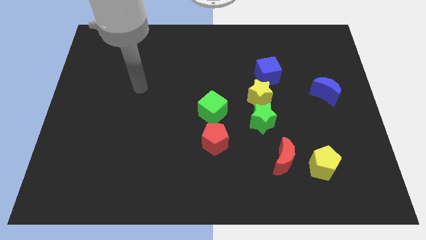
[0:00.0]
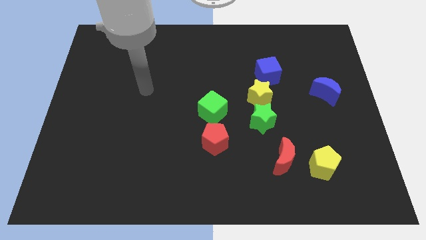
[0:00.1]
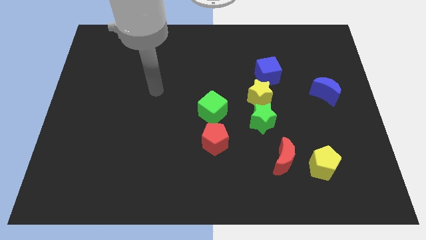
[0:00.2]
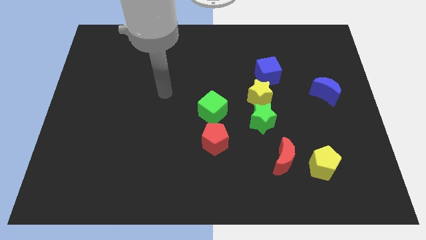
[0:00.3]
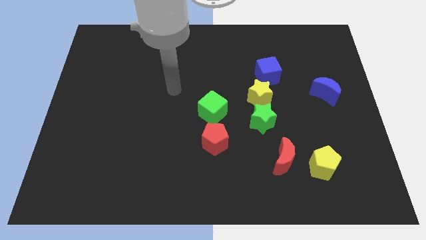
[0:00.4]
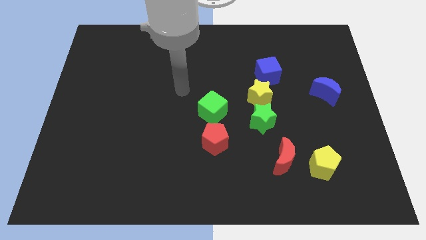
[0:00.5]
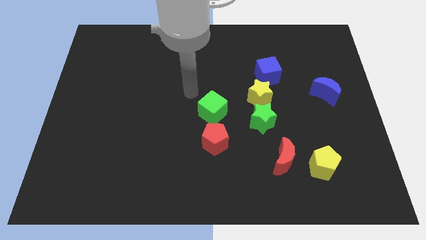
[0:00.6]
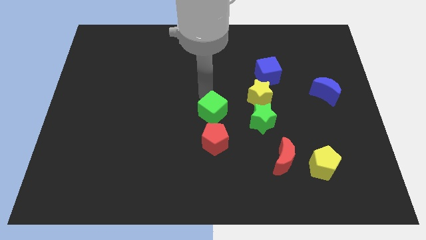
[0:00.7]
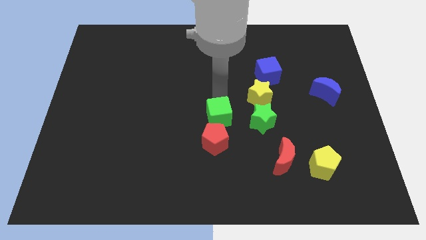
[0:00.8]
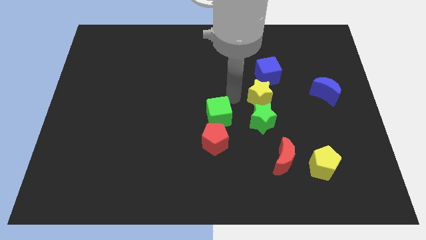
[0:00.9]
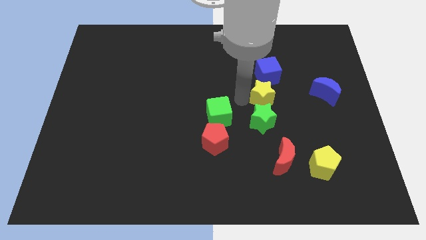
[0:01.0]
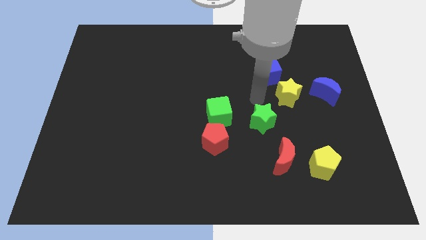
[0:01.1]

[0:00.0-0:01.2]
pull the green star apart from the yellow star

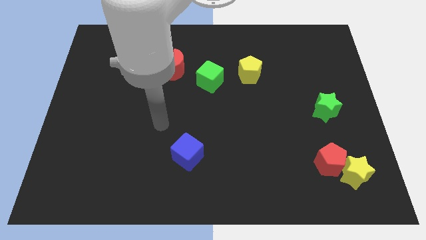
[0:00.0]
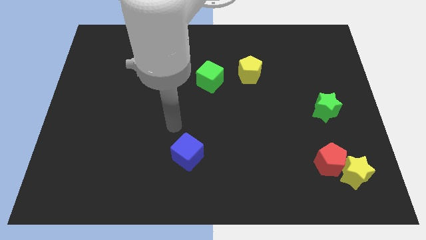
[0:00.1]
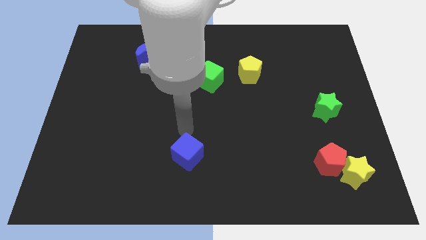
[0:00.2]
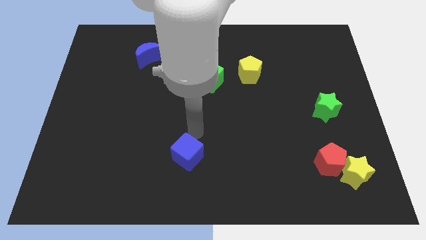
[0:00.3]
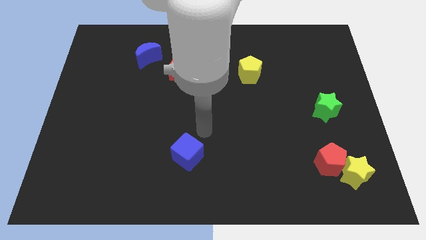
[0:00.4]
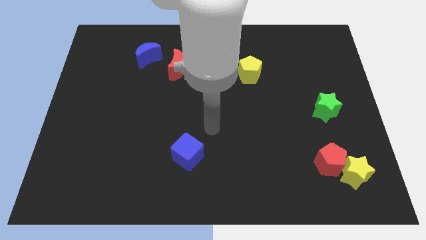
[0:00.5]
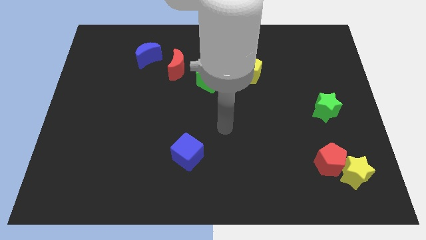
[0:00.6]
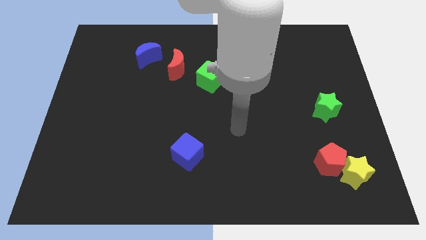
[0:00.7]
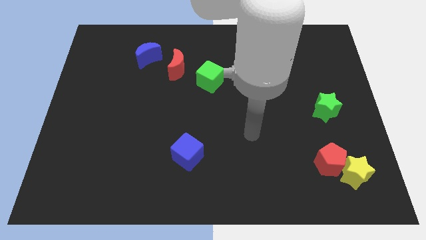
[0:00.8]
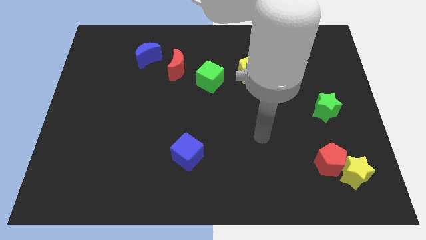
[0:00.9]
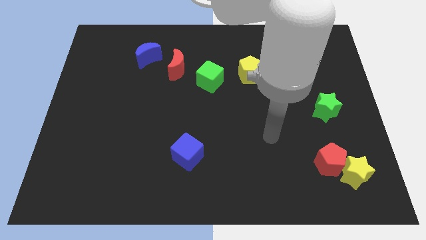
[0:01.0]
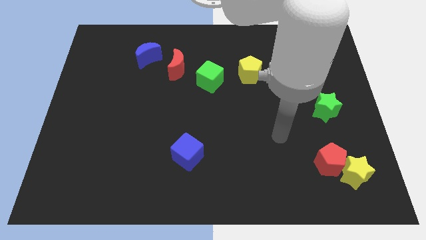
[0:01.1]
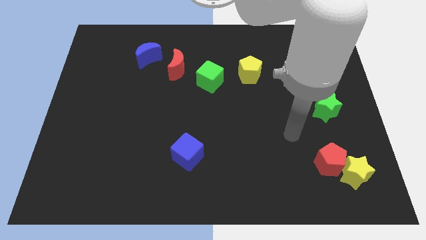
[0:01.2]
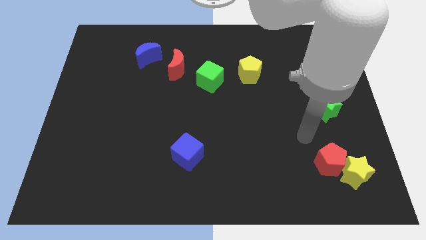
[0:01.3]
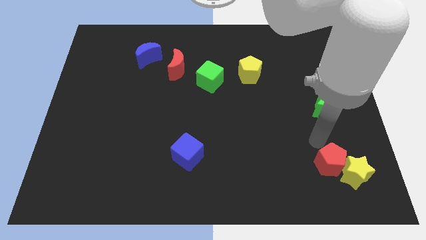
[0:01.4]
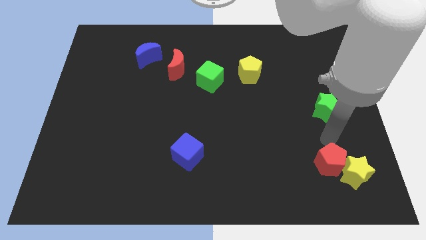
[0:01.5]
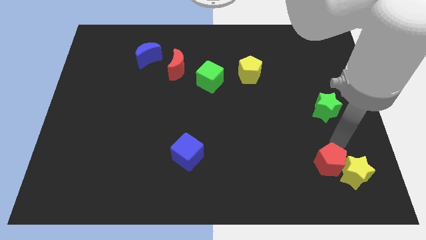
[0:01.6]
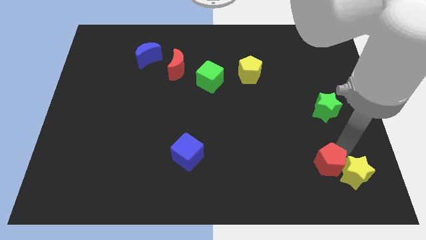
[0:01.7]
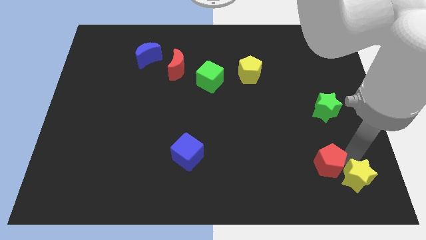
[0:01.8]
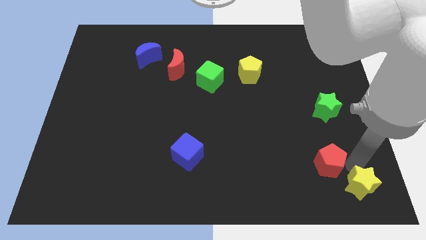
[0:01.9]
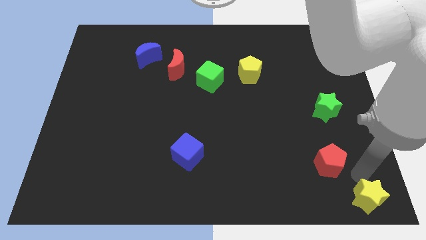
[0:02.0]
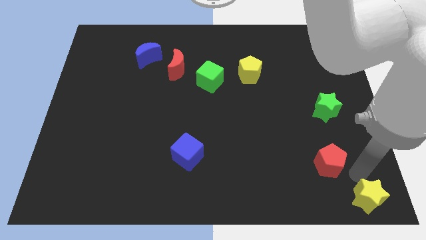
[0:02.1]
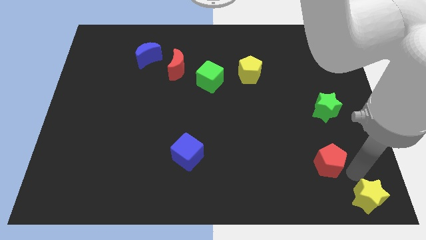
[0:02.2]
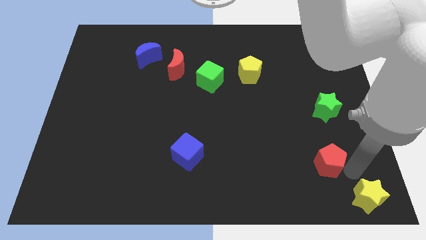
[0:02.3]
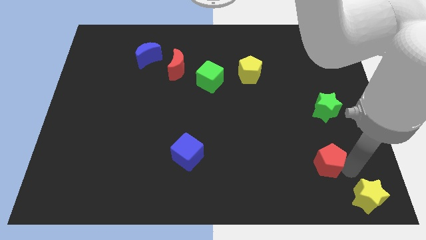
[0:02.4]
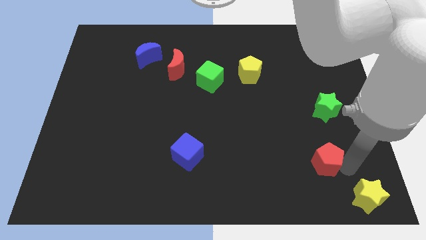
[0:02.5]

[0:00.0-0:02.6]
pull the red pentagon apart from the yellow star

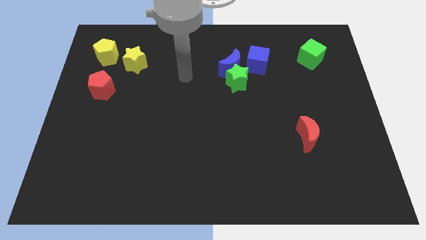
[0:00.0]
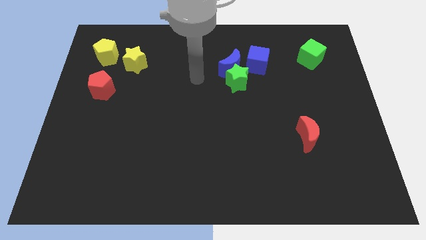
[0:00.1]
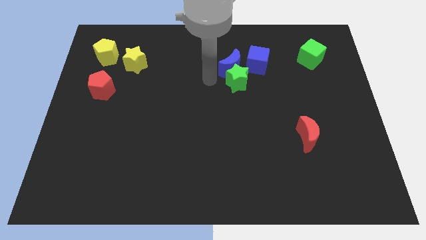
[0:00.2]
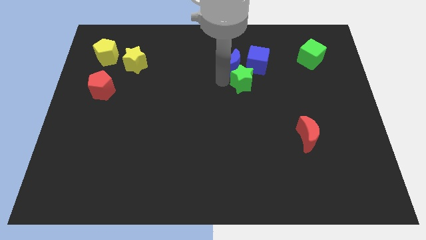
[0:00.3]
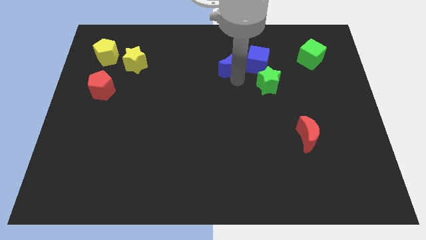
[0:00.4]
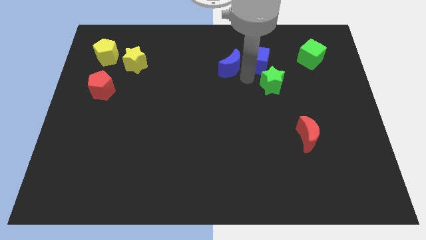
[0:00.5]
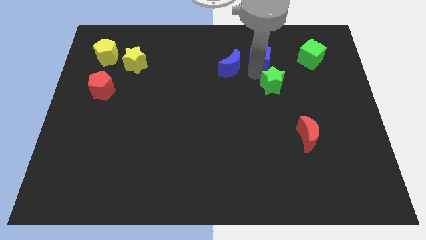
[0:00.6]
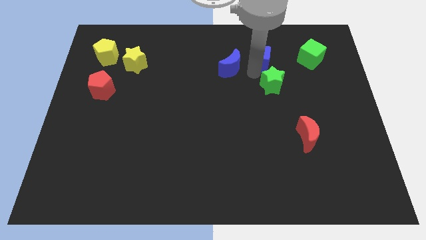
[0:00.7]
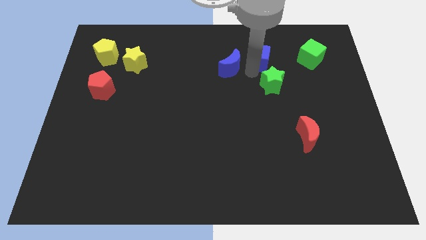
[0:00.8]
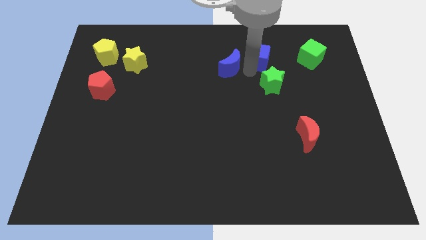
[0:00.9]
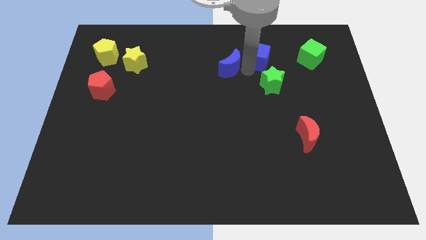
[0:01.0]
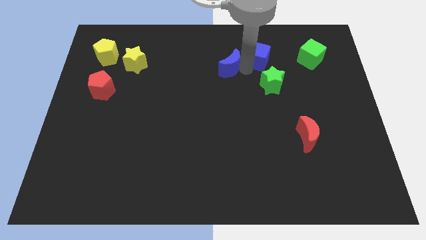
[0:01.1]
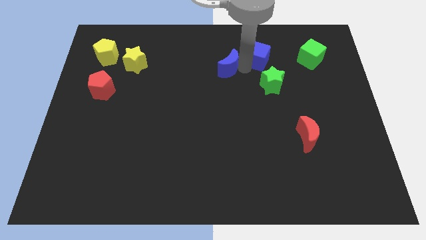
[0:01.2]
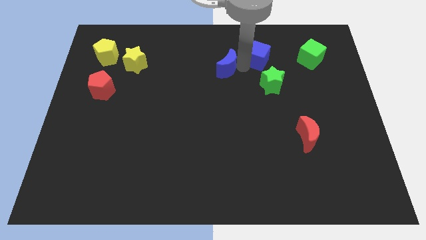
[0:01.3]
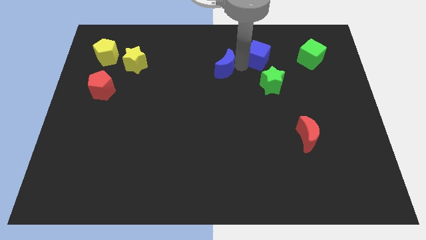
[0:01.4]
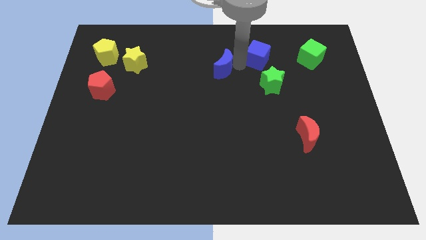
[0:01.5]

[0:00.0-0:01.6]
pull the blue moon apart from the green star and blue cube

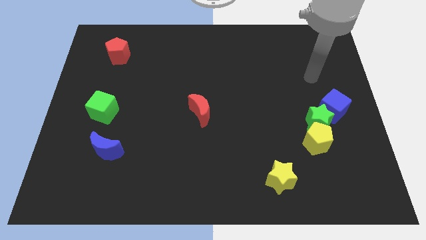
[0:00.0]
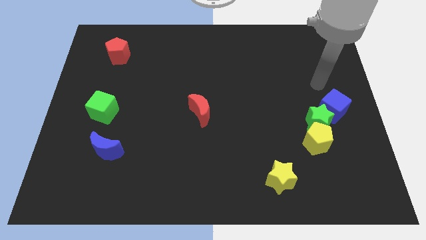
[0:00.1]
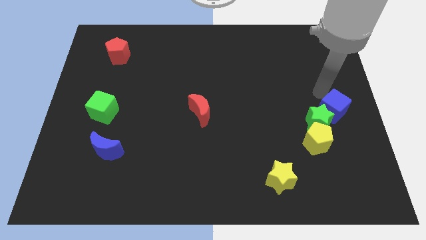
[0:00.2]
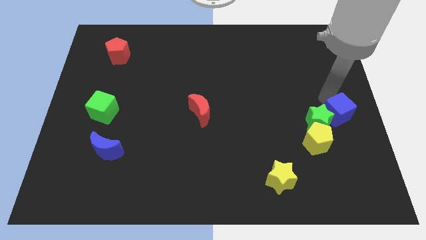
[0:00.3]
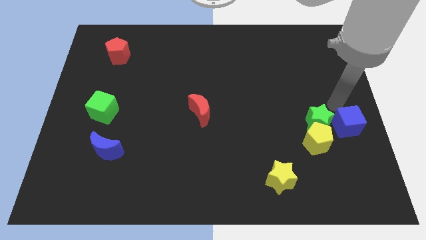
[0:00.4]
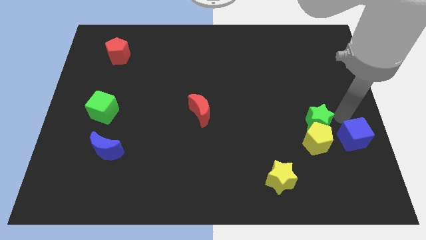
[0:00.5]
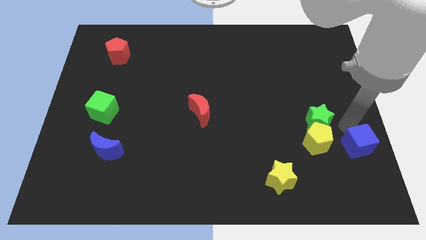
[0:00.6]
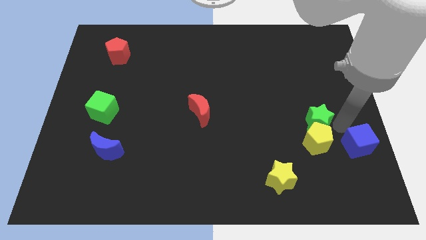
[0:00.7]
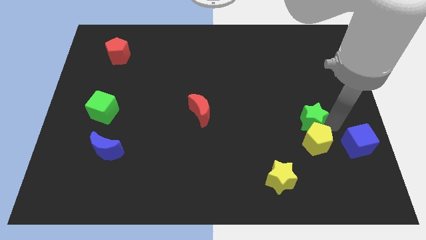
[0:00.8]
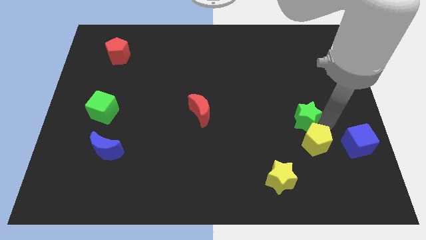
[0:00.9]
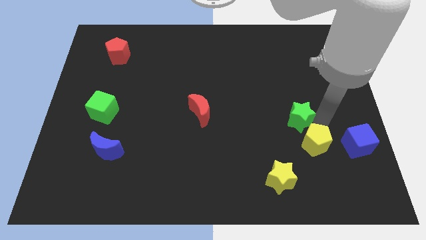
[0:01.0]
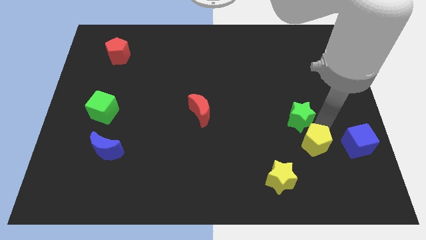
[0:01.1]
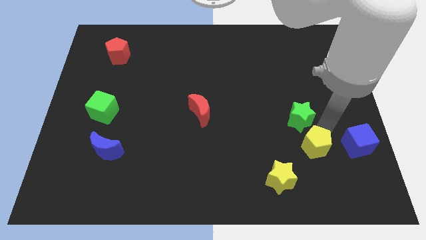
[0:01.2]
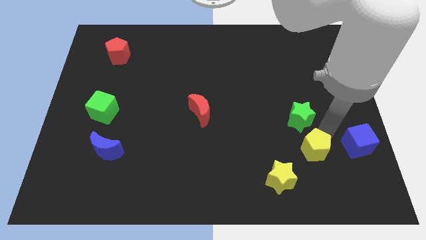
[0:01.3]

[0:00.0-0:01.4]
separate the green star from the yellow pentagon and blue cube

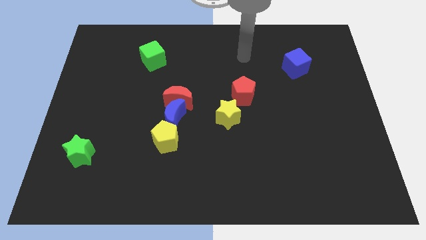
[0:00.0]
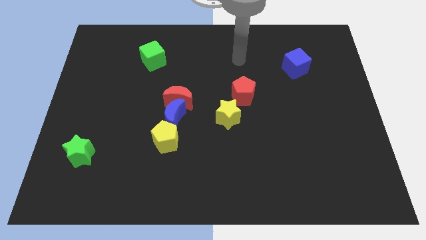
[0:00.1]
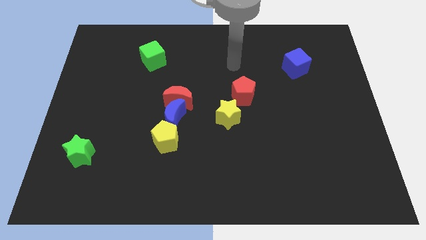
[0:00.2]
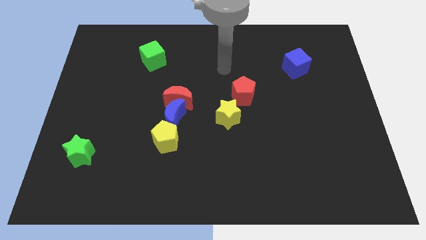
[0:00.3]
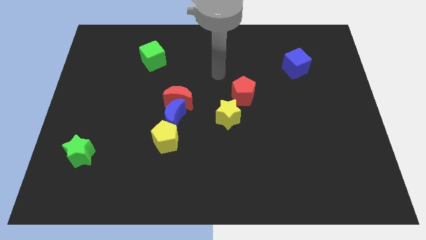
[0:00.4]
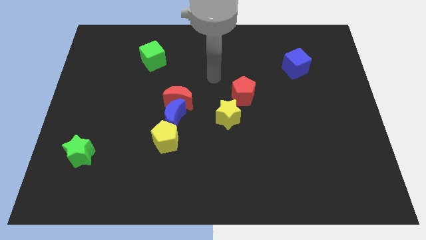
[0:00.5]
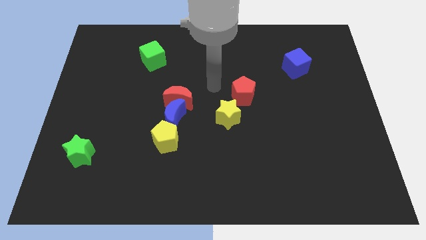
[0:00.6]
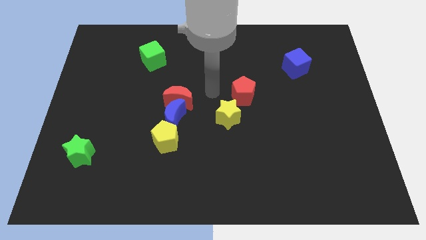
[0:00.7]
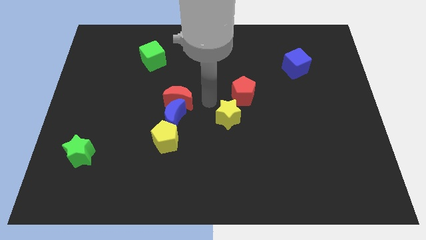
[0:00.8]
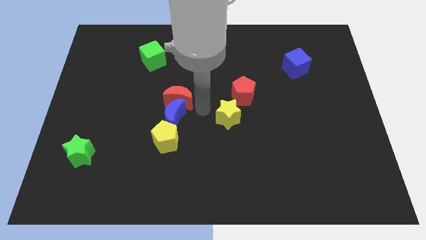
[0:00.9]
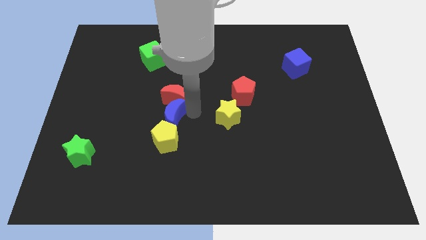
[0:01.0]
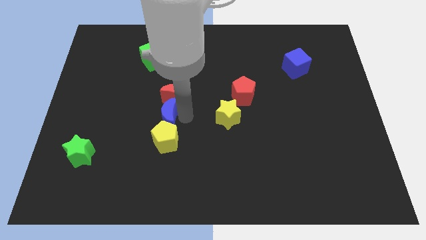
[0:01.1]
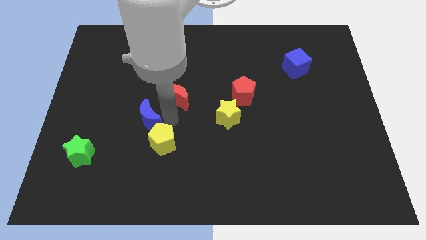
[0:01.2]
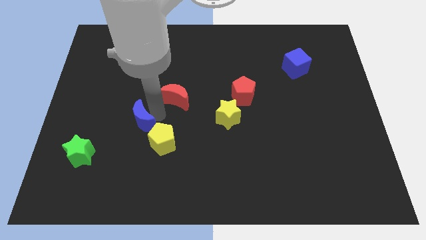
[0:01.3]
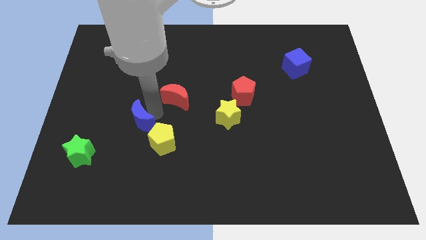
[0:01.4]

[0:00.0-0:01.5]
pull the red moon apart from the blue moon

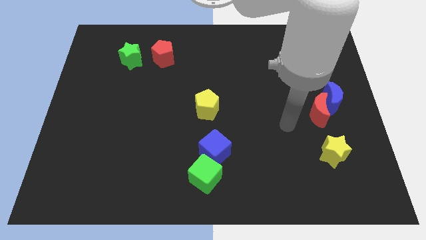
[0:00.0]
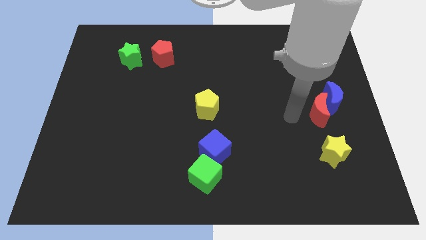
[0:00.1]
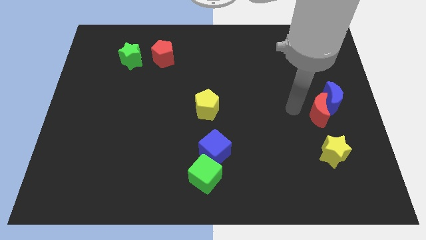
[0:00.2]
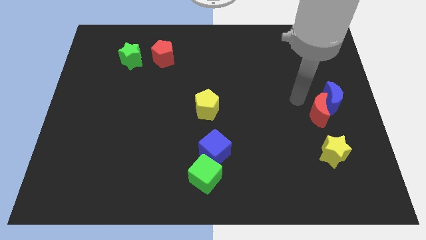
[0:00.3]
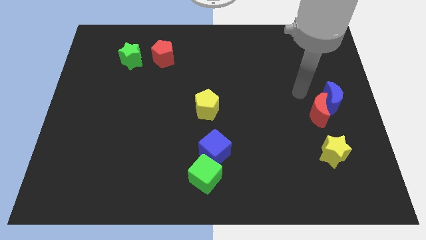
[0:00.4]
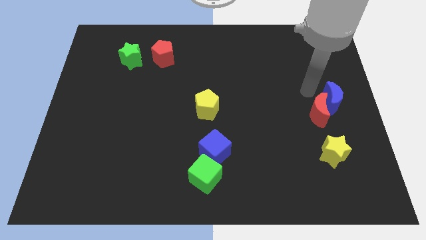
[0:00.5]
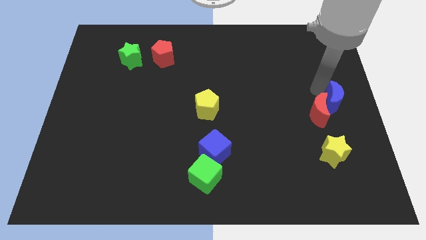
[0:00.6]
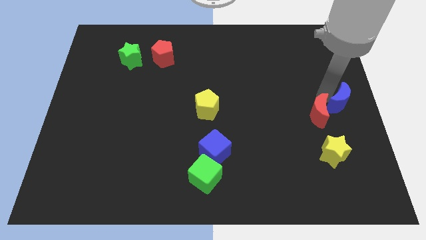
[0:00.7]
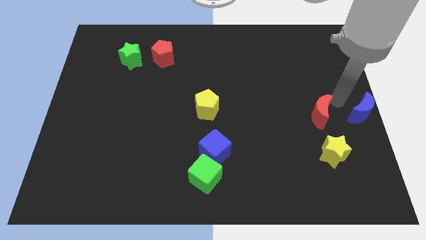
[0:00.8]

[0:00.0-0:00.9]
move the red moon away from the blue moon

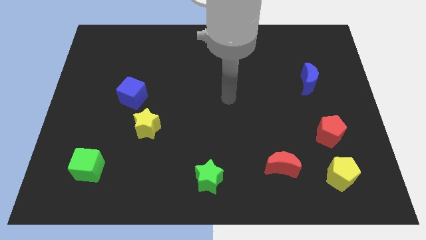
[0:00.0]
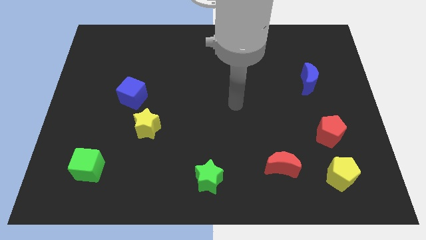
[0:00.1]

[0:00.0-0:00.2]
pull the red pentagon apart from the yellow pentagon
